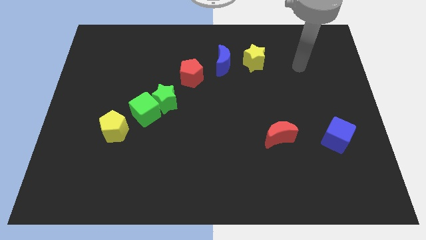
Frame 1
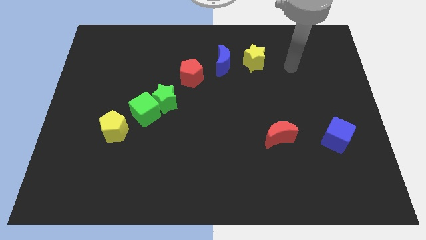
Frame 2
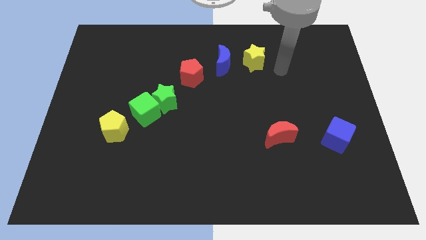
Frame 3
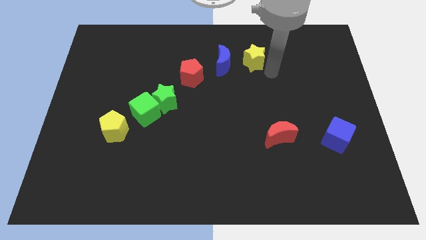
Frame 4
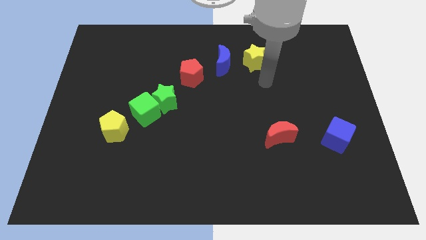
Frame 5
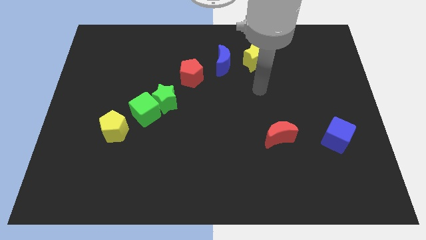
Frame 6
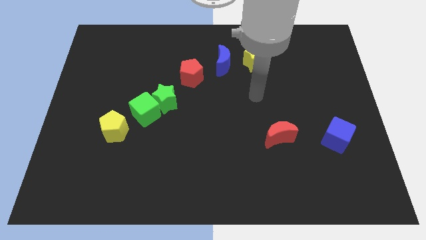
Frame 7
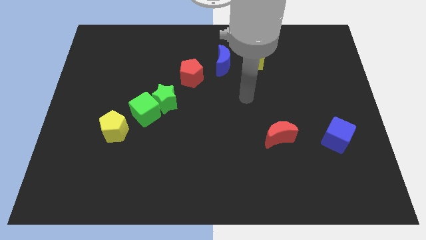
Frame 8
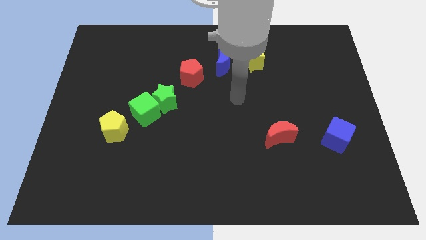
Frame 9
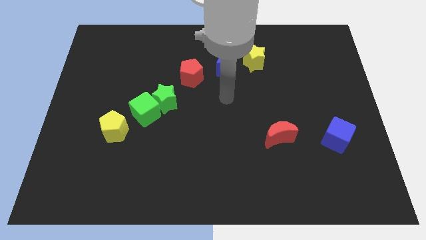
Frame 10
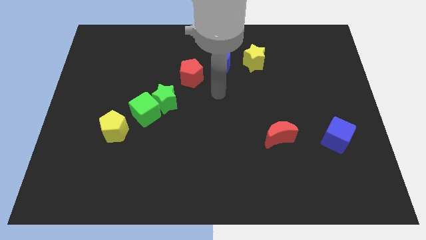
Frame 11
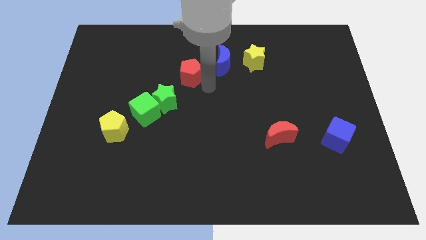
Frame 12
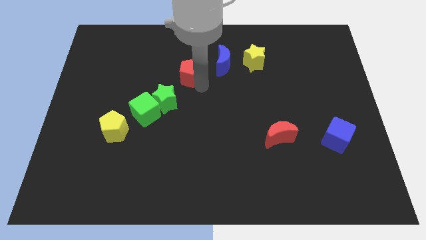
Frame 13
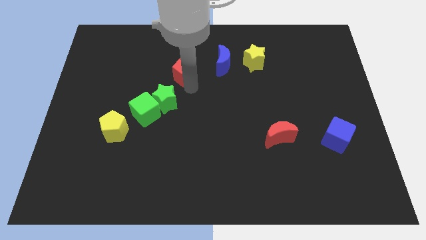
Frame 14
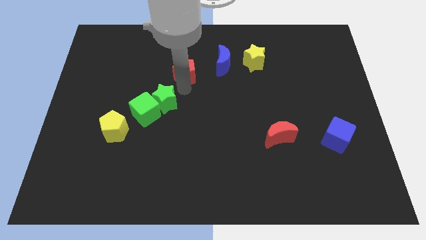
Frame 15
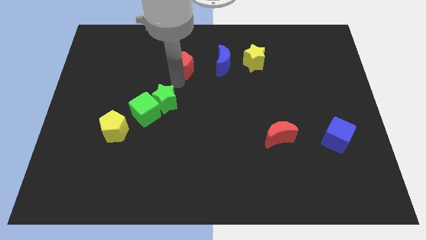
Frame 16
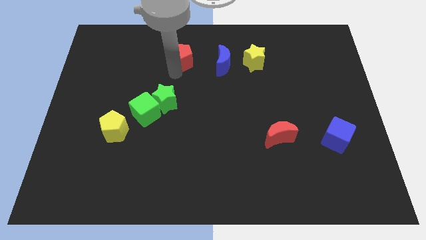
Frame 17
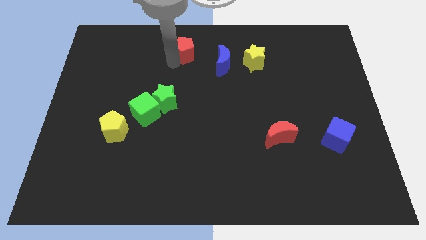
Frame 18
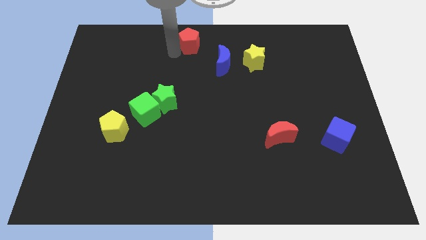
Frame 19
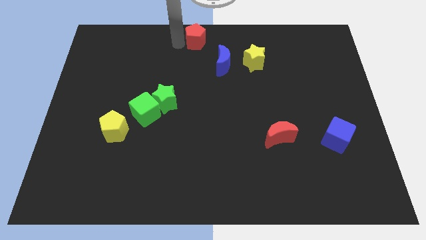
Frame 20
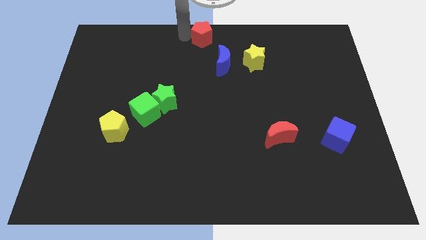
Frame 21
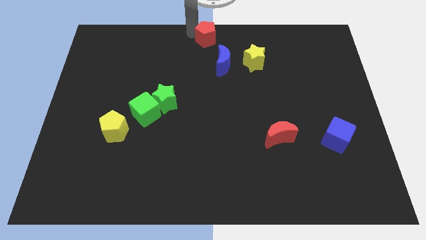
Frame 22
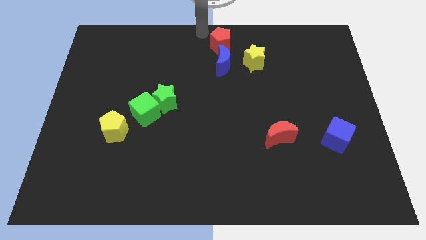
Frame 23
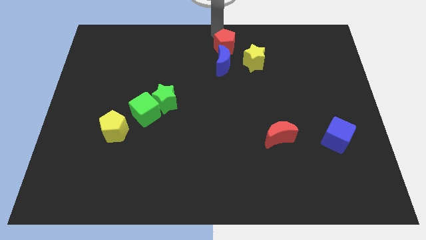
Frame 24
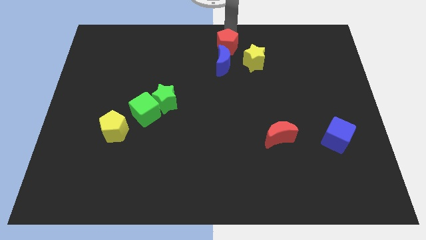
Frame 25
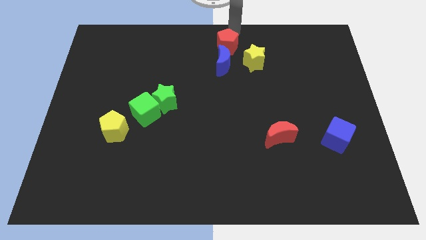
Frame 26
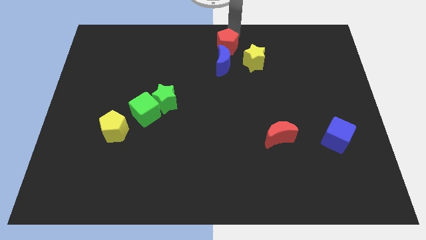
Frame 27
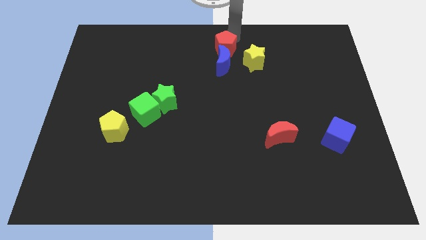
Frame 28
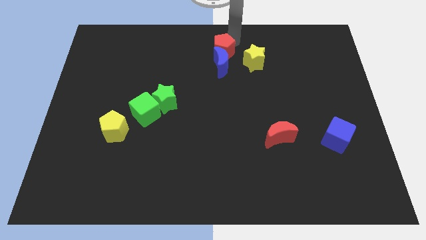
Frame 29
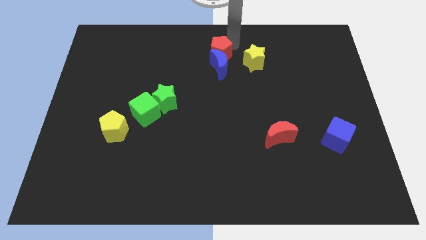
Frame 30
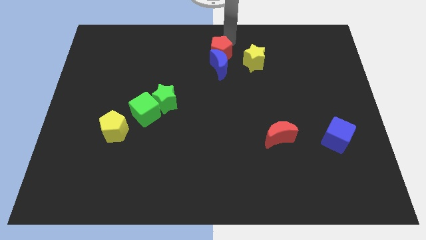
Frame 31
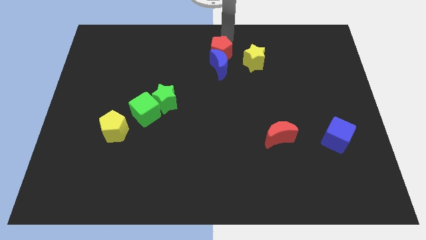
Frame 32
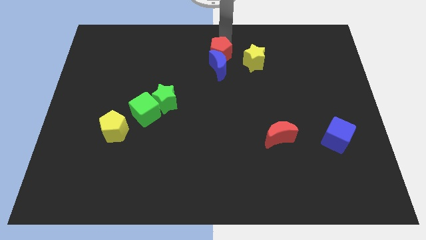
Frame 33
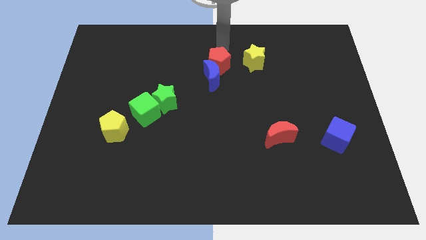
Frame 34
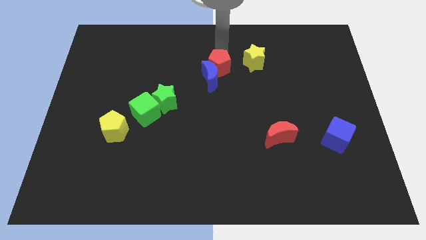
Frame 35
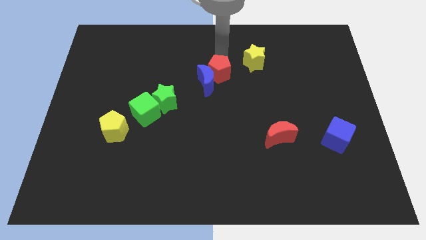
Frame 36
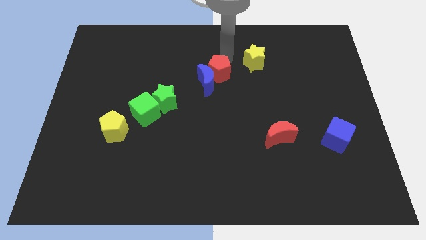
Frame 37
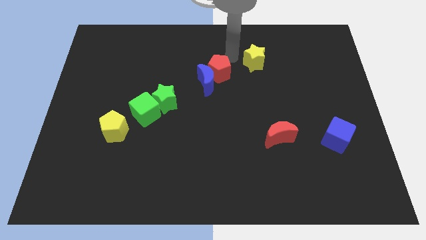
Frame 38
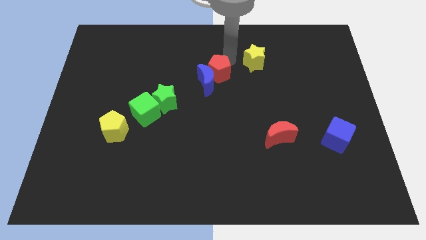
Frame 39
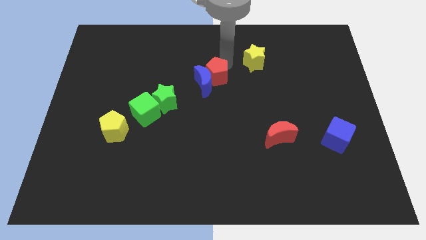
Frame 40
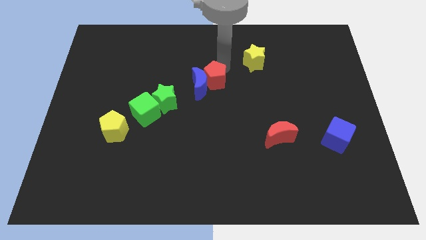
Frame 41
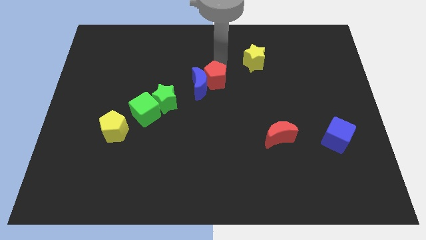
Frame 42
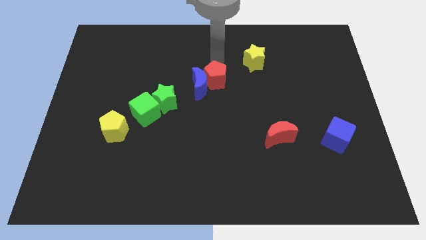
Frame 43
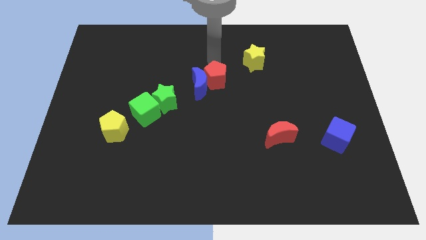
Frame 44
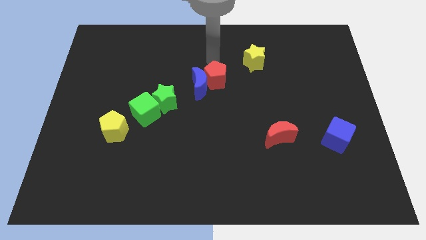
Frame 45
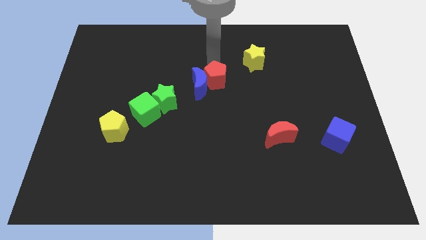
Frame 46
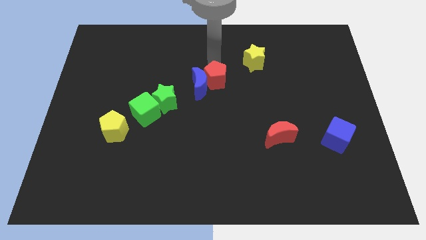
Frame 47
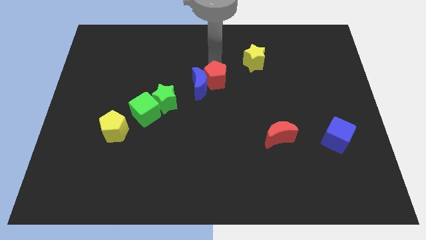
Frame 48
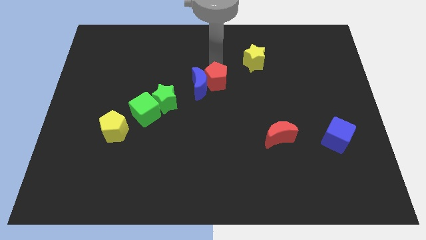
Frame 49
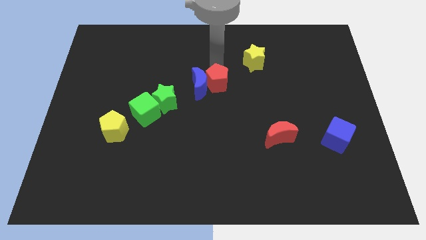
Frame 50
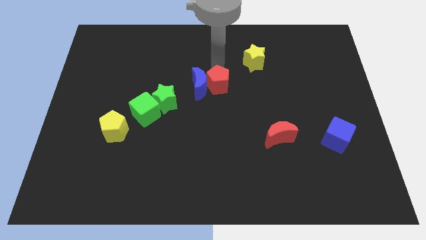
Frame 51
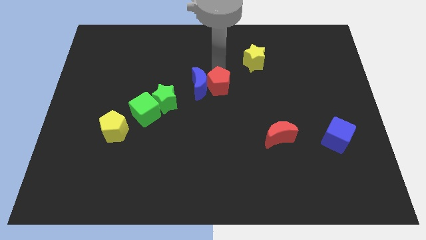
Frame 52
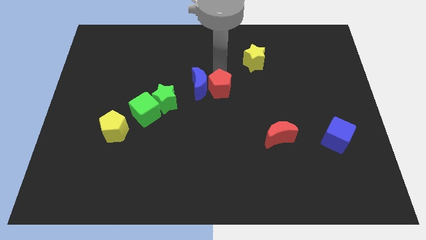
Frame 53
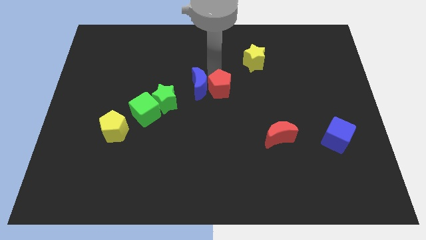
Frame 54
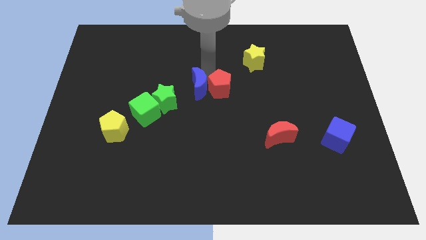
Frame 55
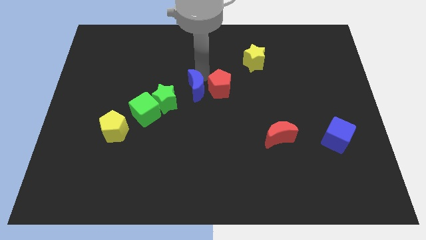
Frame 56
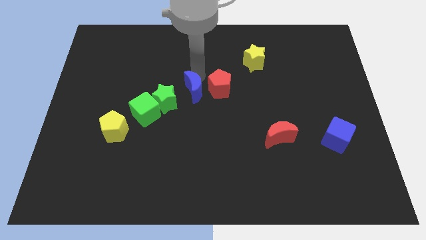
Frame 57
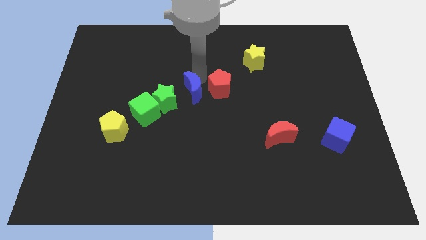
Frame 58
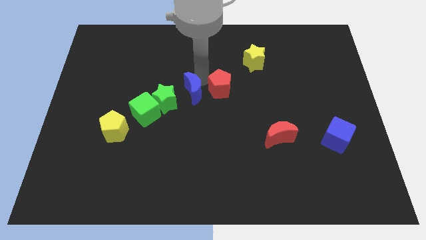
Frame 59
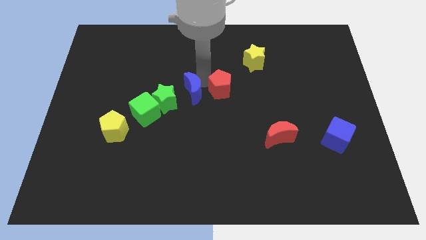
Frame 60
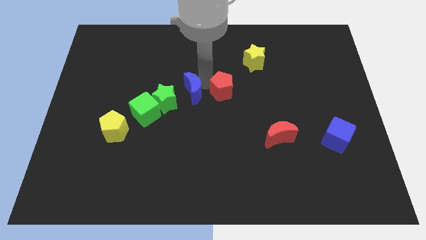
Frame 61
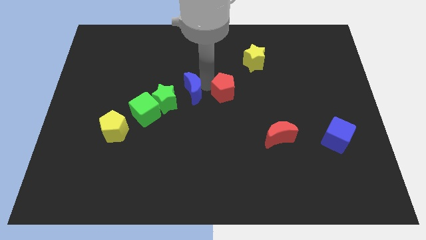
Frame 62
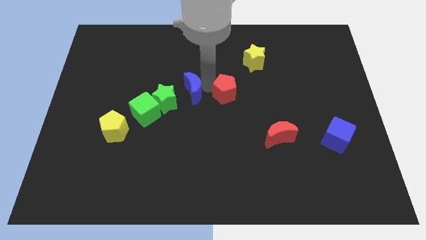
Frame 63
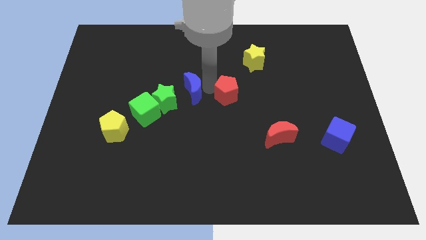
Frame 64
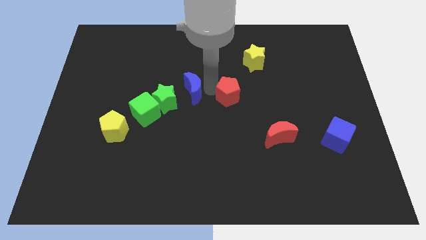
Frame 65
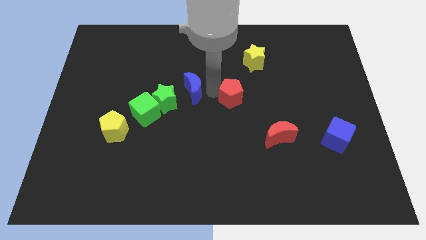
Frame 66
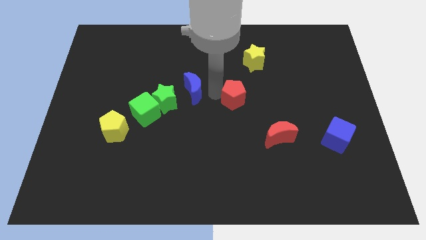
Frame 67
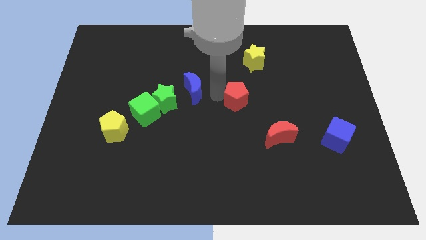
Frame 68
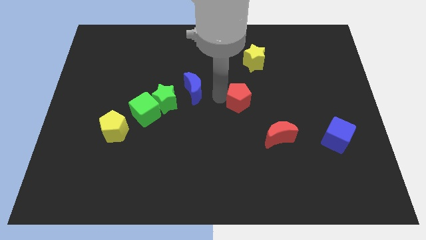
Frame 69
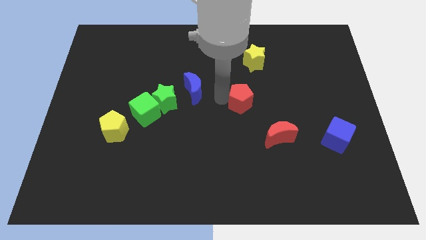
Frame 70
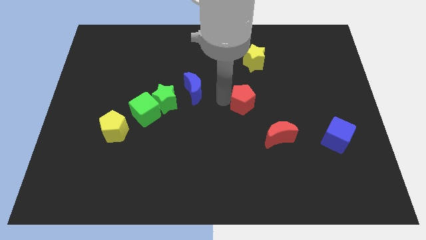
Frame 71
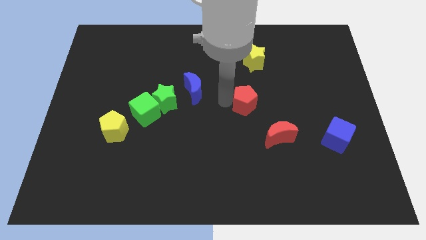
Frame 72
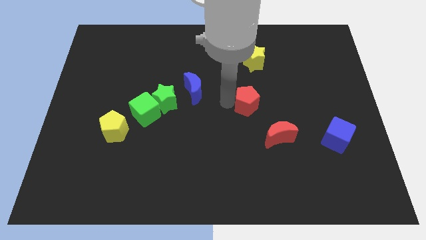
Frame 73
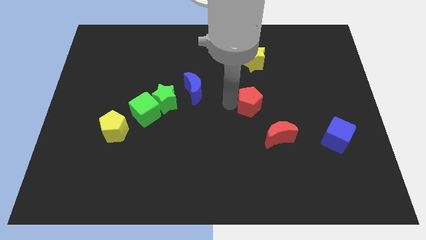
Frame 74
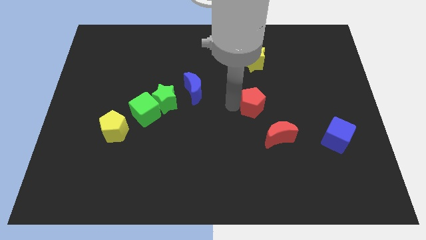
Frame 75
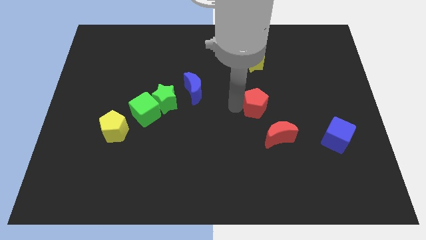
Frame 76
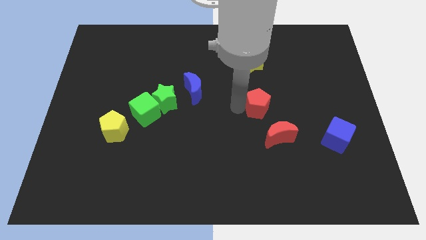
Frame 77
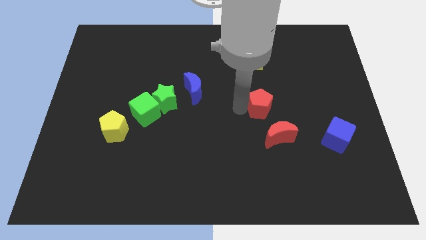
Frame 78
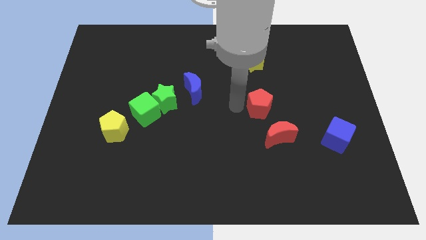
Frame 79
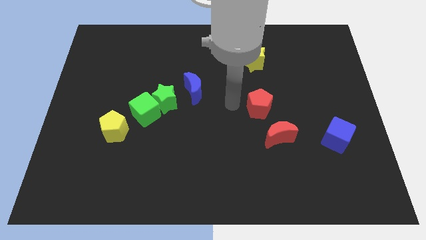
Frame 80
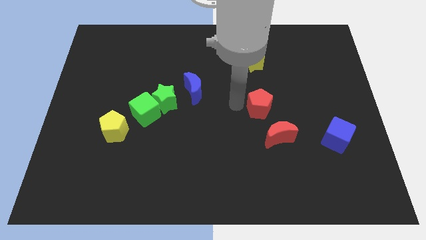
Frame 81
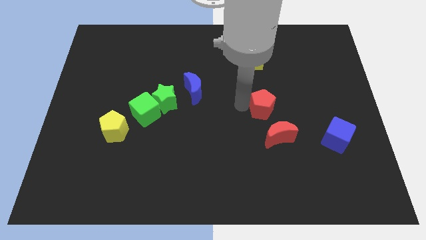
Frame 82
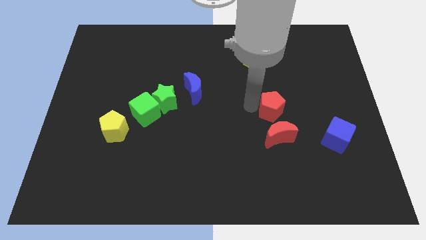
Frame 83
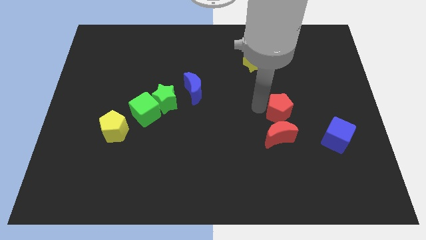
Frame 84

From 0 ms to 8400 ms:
push the red pentagon to the top right of the red moon
